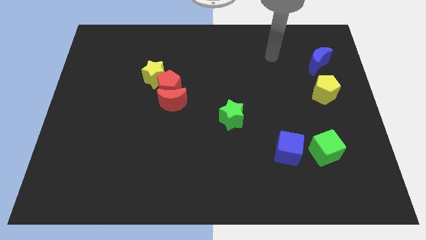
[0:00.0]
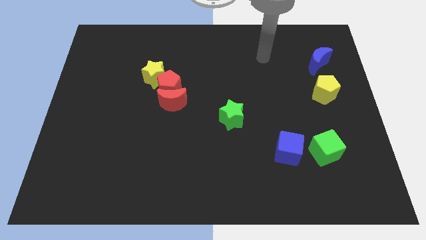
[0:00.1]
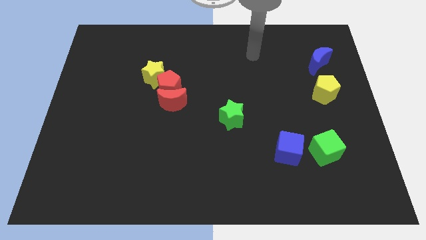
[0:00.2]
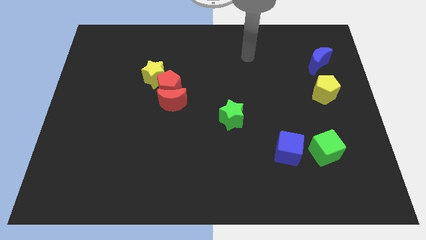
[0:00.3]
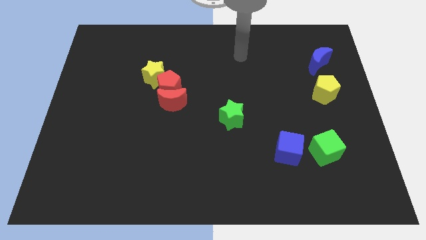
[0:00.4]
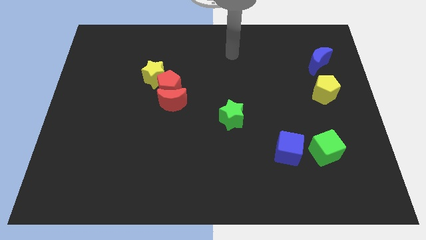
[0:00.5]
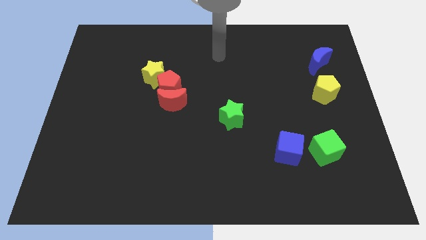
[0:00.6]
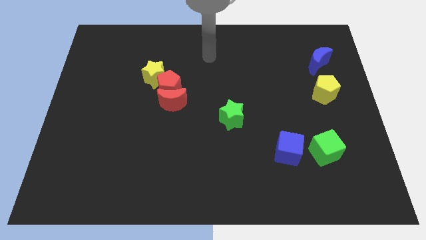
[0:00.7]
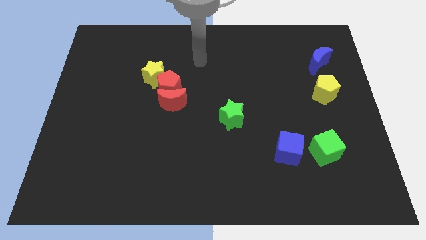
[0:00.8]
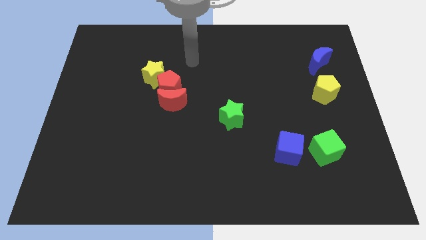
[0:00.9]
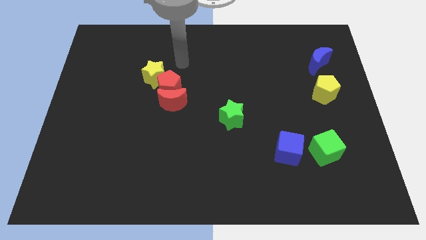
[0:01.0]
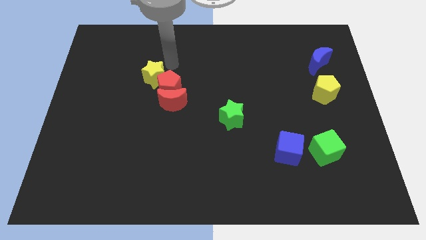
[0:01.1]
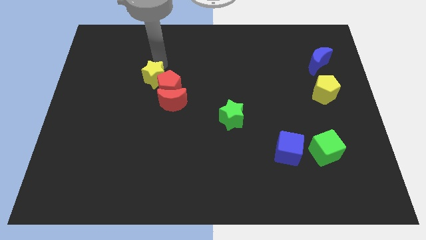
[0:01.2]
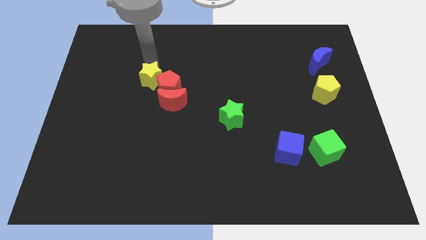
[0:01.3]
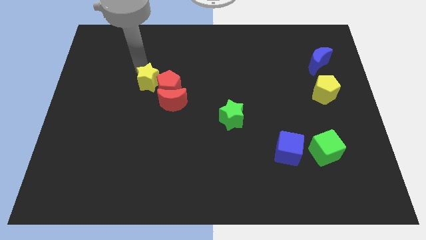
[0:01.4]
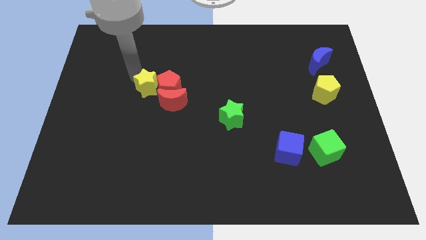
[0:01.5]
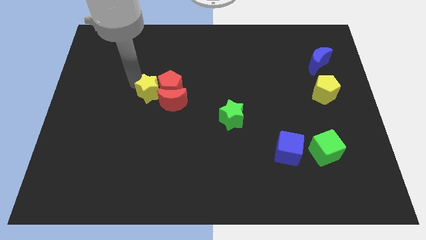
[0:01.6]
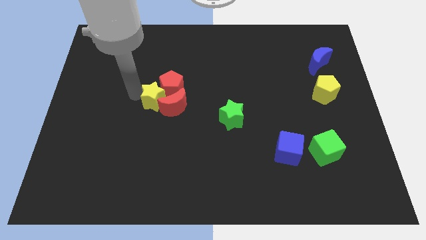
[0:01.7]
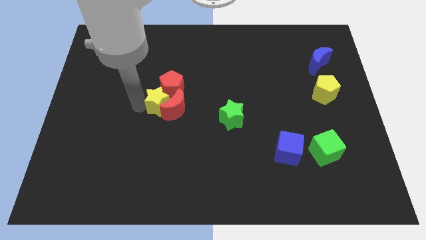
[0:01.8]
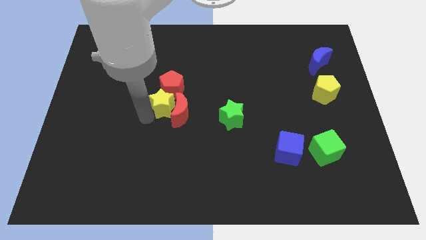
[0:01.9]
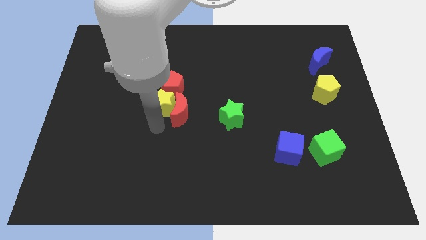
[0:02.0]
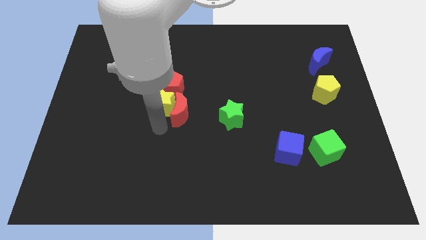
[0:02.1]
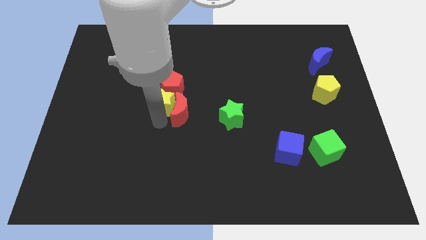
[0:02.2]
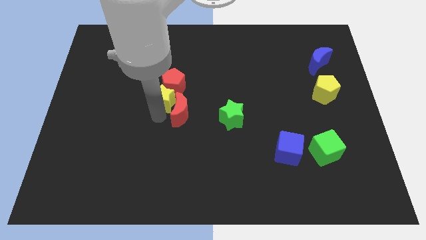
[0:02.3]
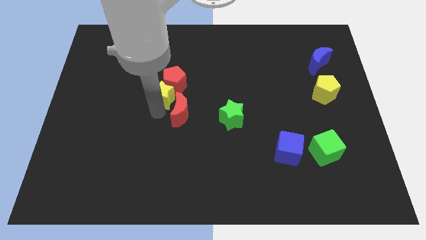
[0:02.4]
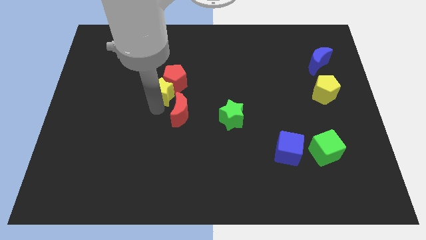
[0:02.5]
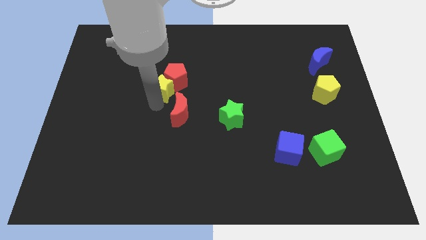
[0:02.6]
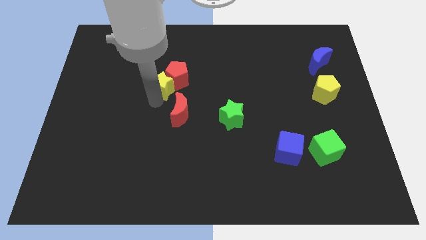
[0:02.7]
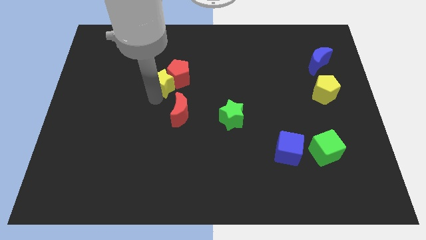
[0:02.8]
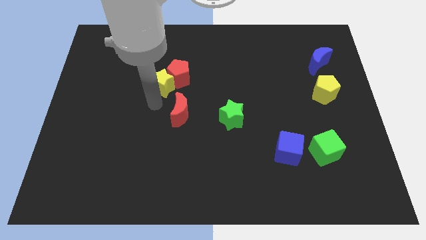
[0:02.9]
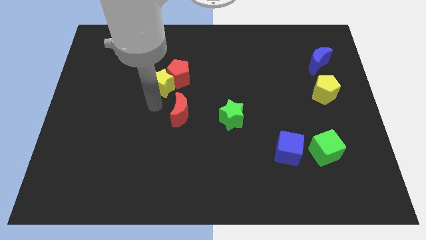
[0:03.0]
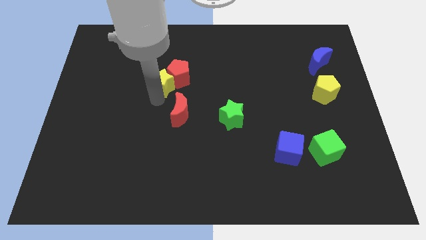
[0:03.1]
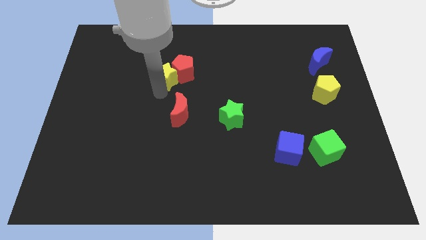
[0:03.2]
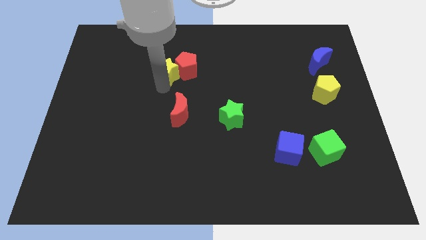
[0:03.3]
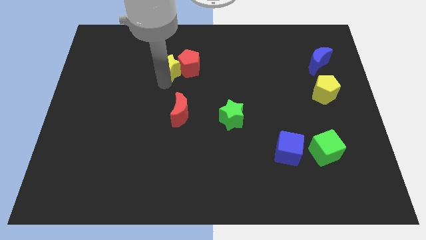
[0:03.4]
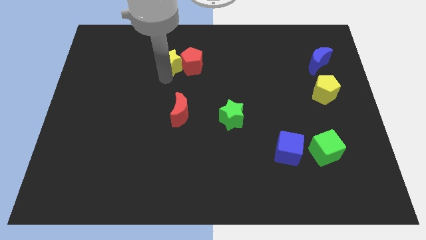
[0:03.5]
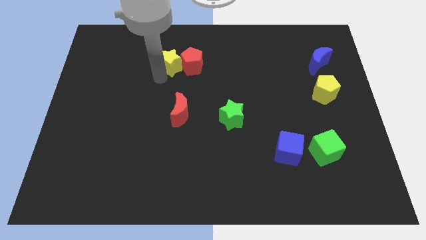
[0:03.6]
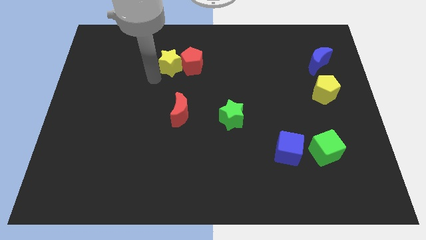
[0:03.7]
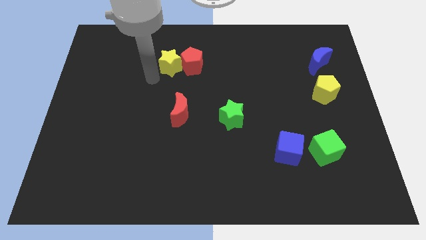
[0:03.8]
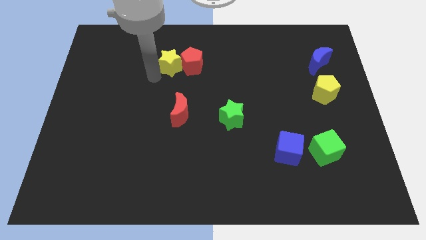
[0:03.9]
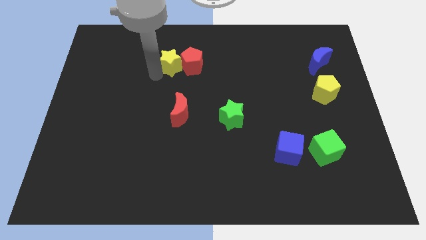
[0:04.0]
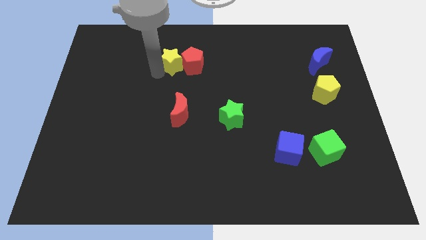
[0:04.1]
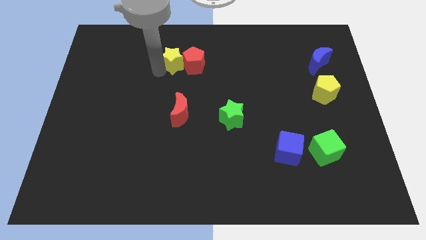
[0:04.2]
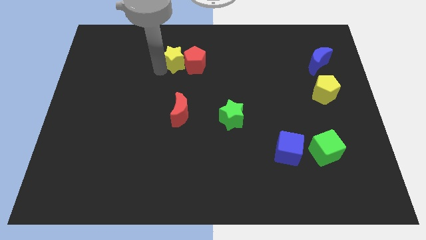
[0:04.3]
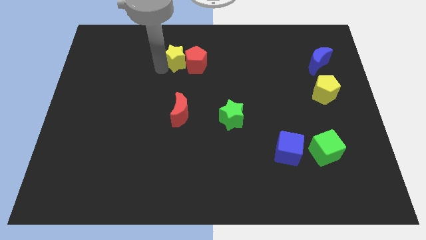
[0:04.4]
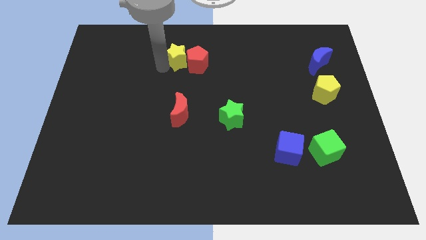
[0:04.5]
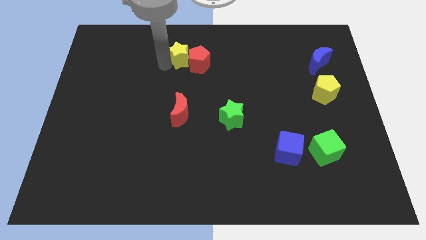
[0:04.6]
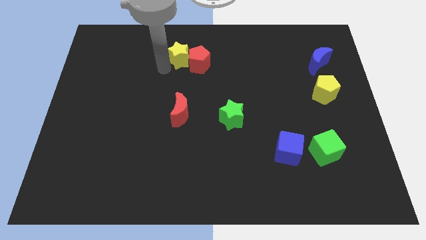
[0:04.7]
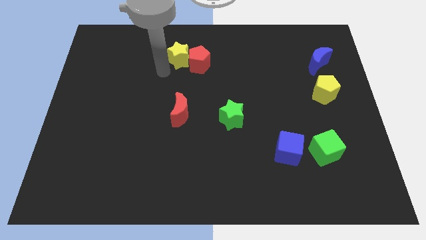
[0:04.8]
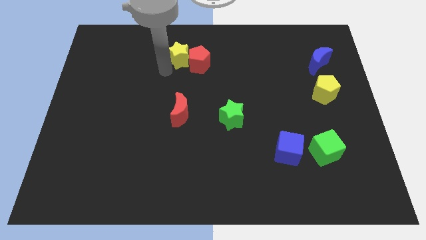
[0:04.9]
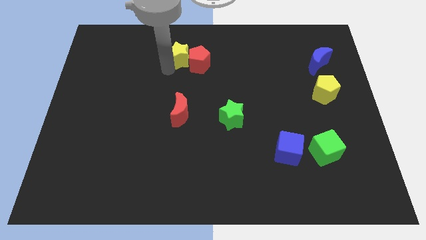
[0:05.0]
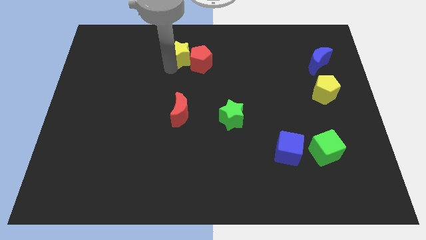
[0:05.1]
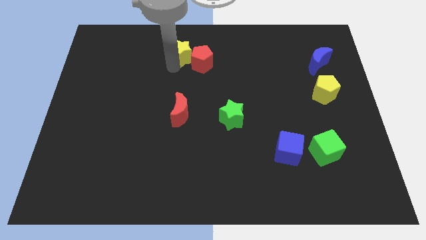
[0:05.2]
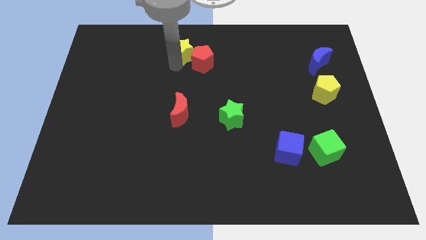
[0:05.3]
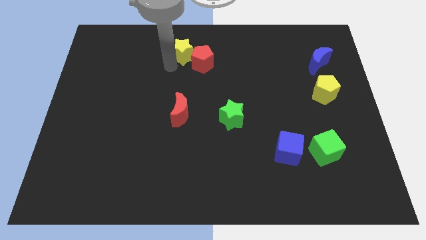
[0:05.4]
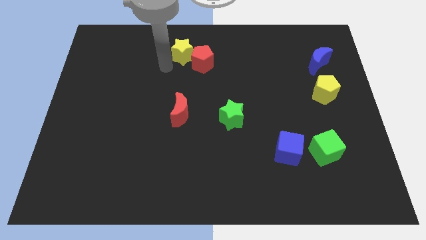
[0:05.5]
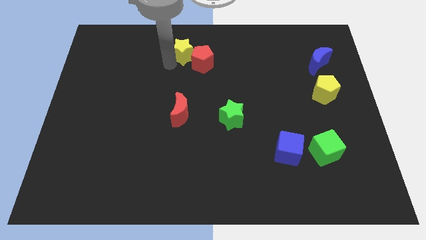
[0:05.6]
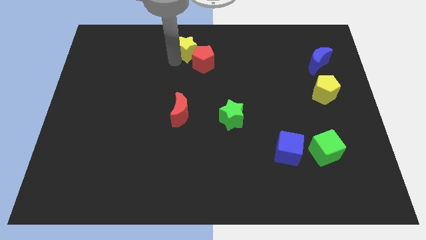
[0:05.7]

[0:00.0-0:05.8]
slide the yellow star to the top side

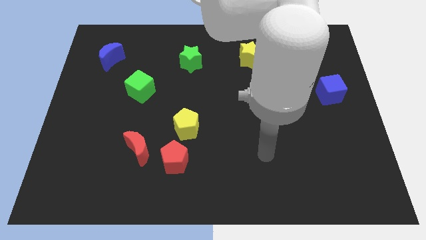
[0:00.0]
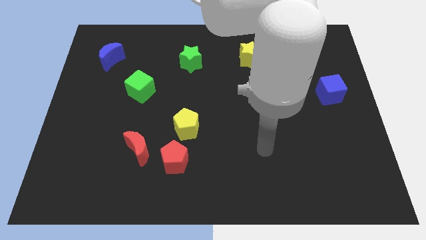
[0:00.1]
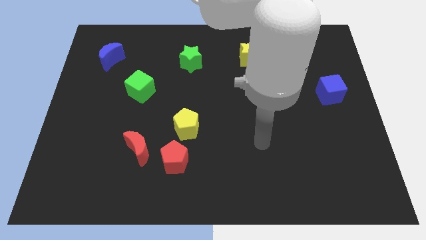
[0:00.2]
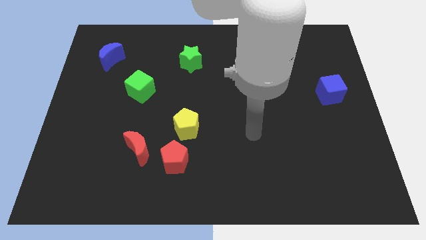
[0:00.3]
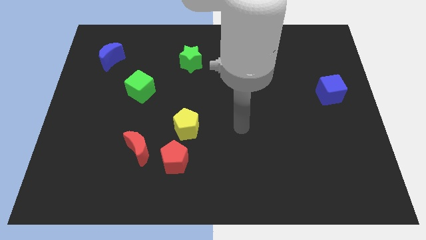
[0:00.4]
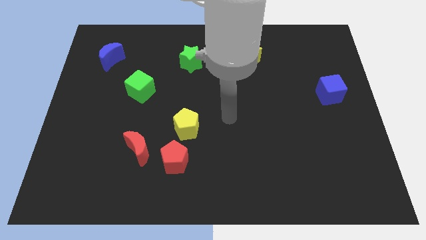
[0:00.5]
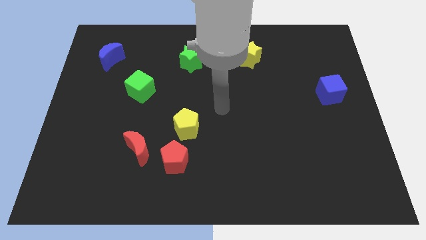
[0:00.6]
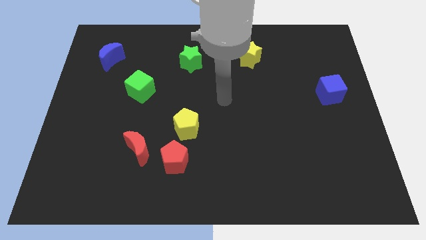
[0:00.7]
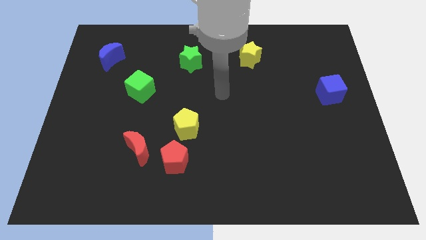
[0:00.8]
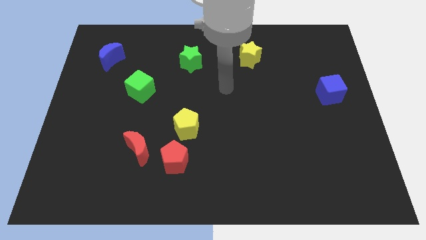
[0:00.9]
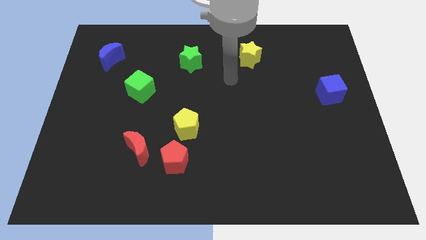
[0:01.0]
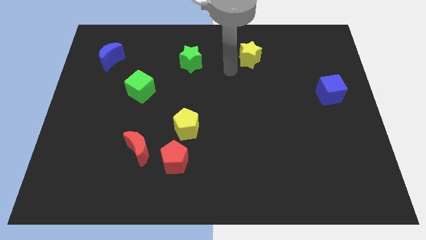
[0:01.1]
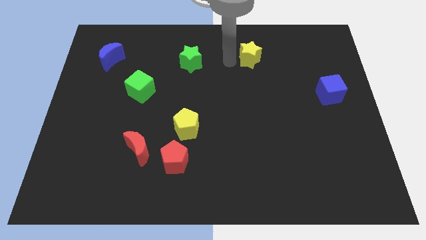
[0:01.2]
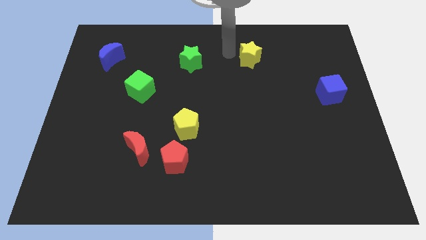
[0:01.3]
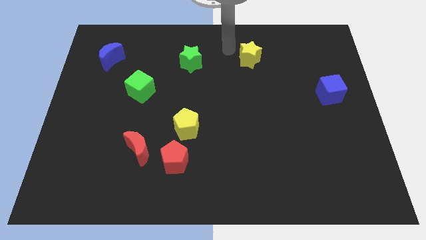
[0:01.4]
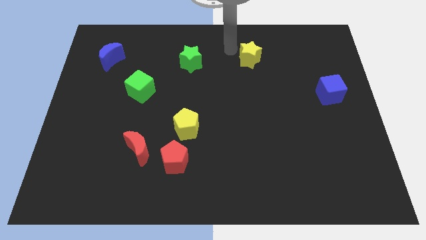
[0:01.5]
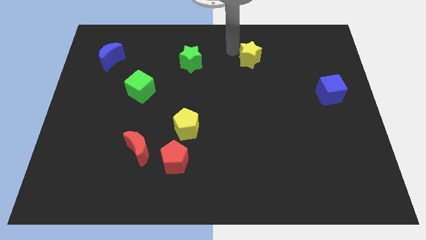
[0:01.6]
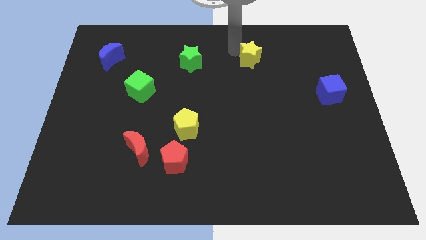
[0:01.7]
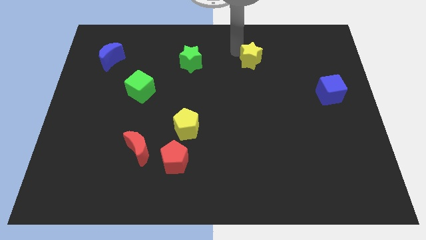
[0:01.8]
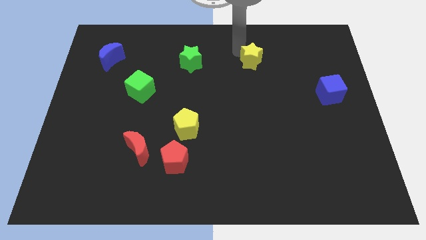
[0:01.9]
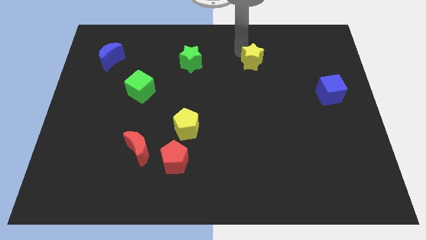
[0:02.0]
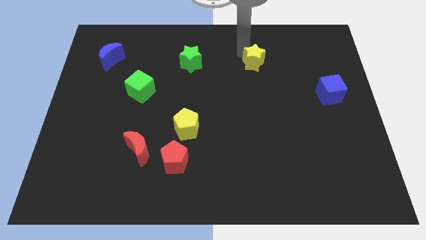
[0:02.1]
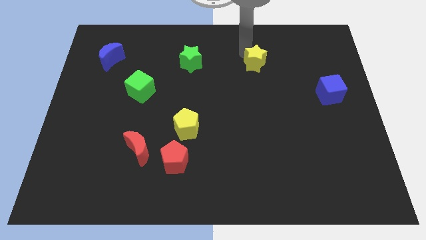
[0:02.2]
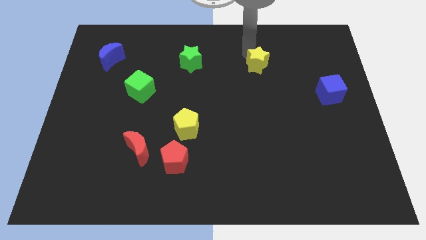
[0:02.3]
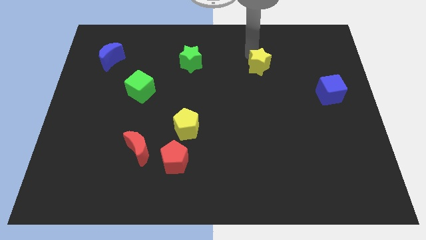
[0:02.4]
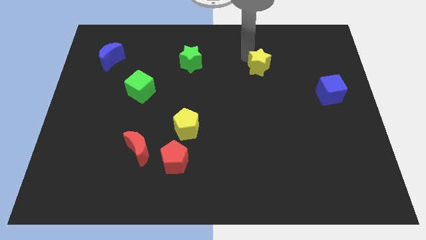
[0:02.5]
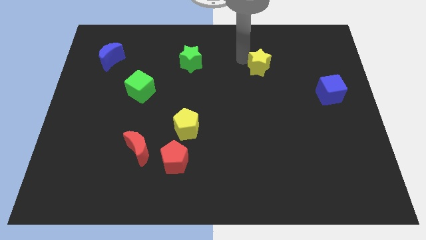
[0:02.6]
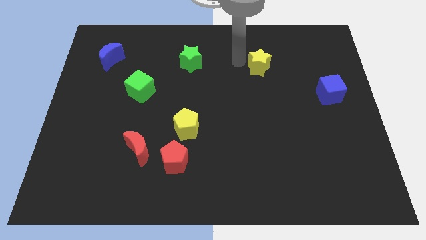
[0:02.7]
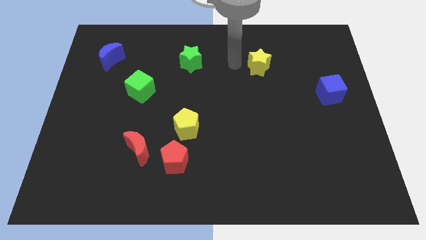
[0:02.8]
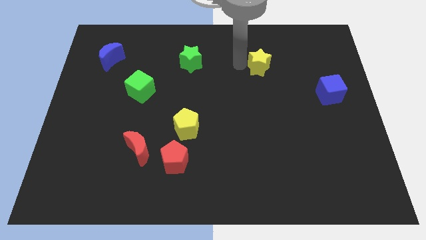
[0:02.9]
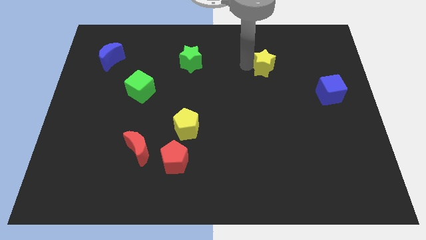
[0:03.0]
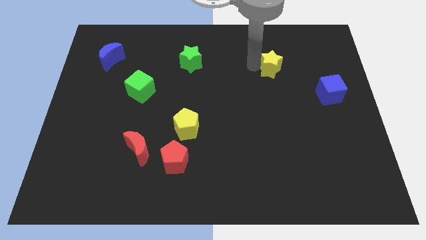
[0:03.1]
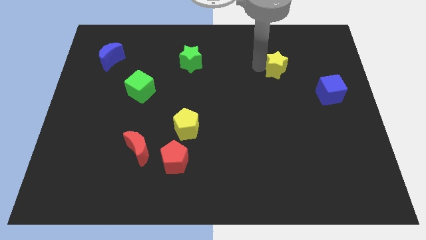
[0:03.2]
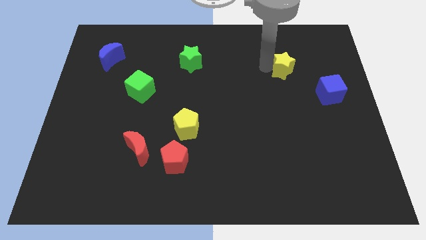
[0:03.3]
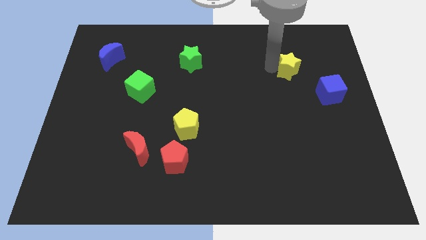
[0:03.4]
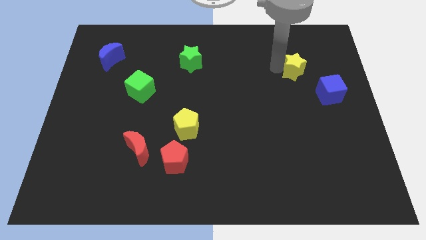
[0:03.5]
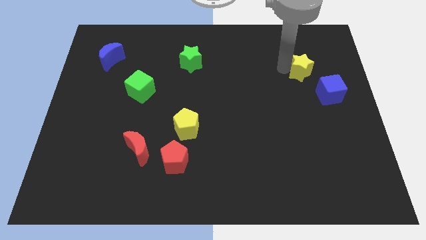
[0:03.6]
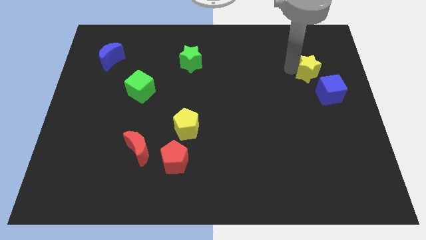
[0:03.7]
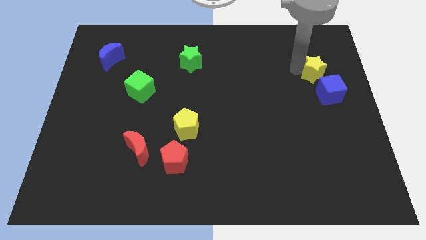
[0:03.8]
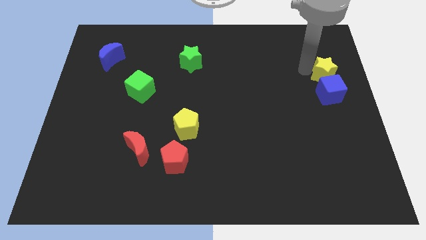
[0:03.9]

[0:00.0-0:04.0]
move the yellow star to the right side of the board
